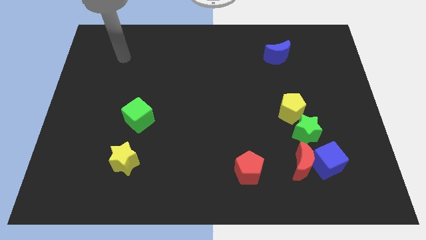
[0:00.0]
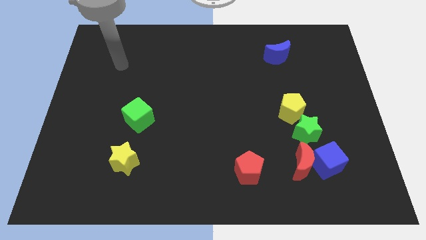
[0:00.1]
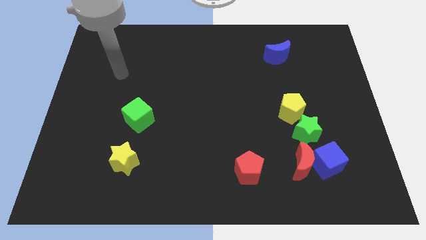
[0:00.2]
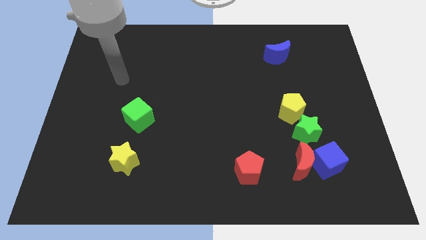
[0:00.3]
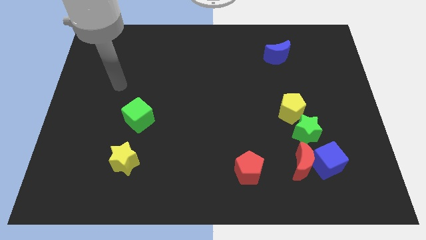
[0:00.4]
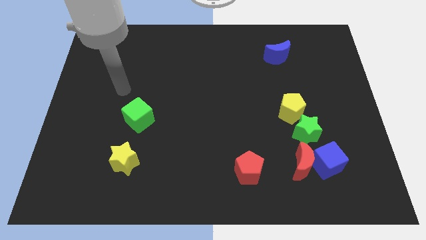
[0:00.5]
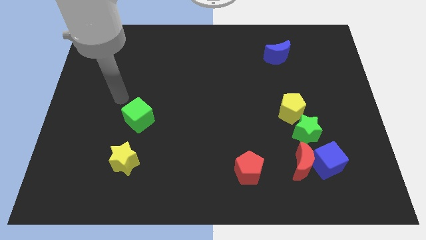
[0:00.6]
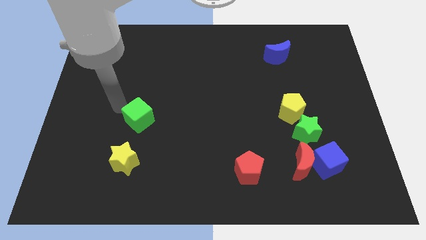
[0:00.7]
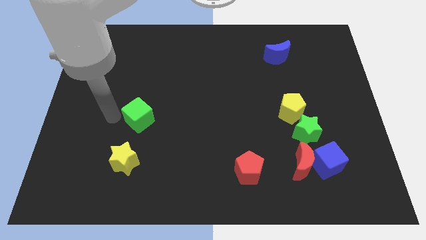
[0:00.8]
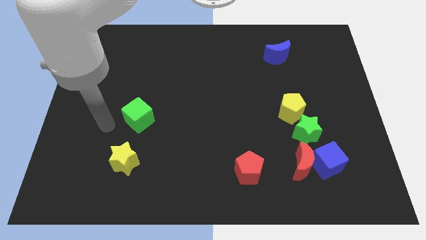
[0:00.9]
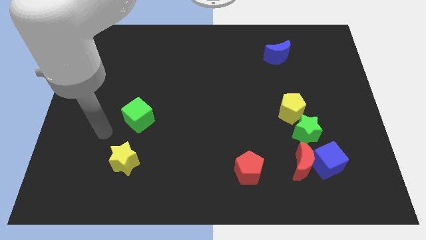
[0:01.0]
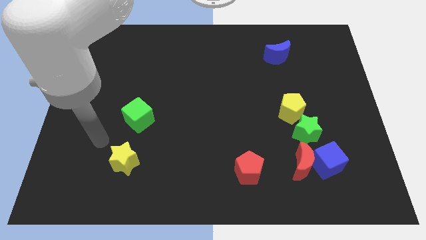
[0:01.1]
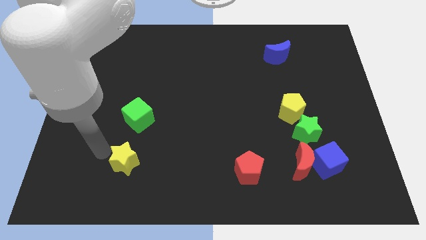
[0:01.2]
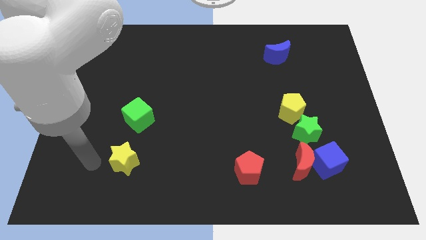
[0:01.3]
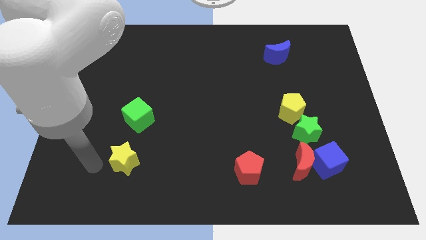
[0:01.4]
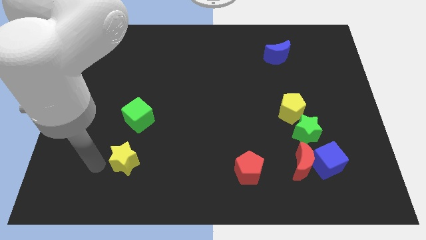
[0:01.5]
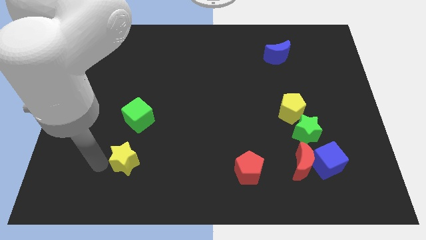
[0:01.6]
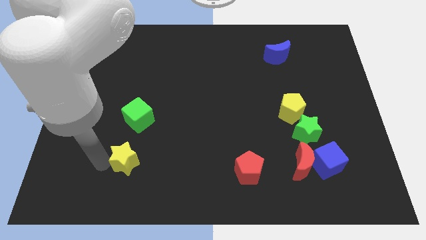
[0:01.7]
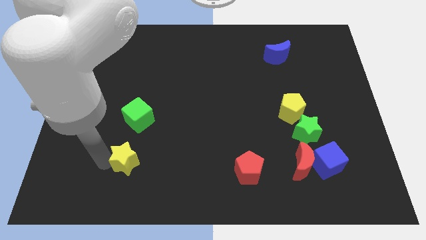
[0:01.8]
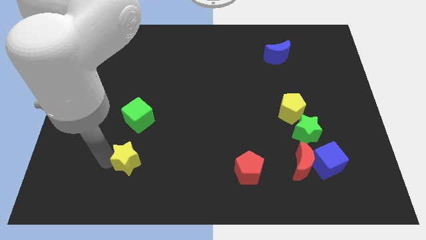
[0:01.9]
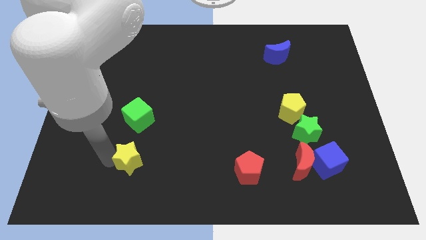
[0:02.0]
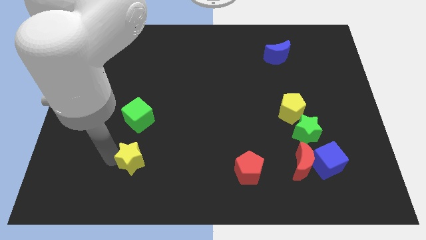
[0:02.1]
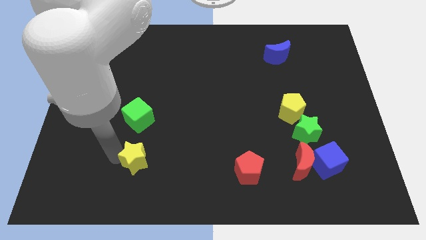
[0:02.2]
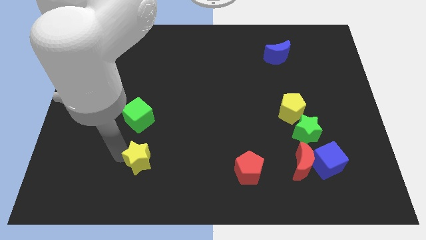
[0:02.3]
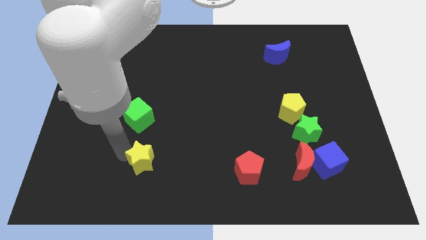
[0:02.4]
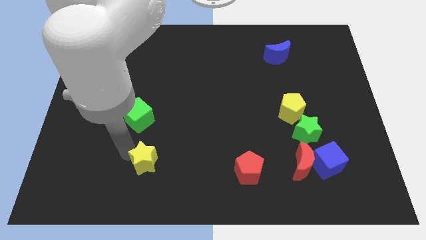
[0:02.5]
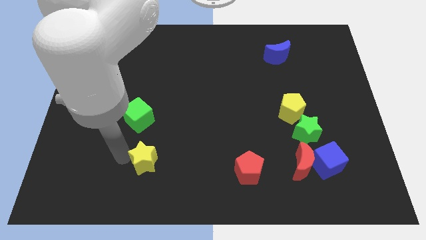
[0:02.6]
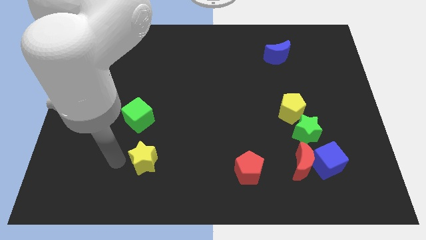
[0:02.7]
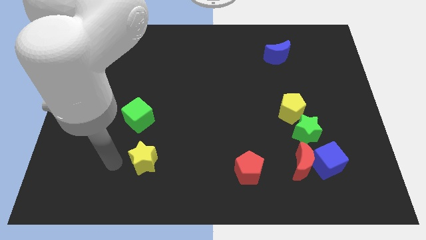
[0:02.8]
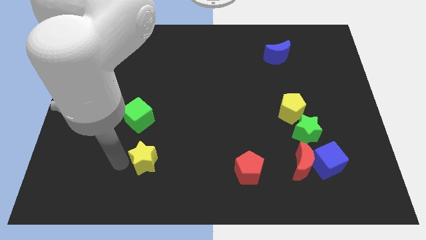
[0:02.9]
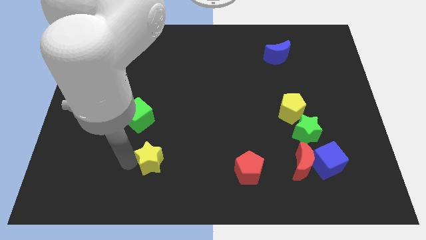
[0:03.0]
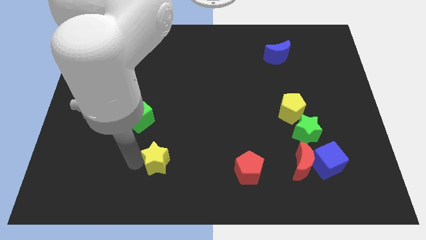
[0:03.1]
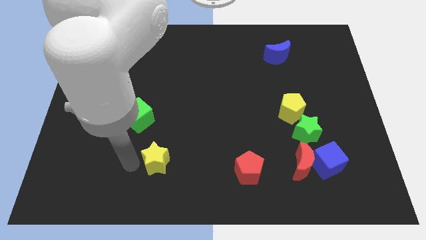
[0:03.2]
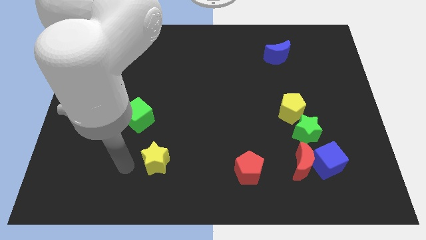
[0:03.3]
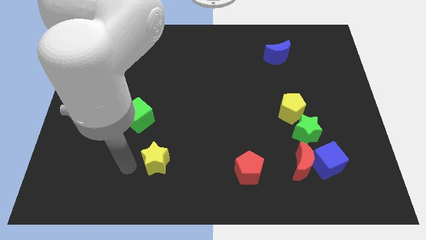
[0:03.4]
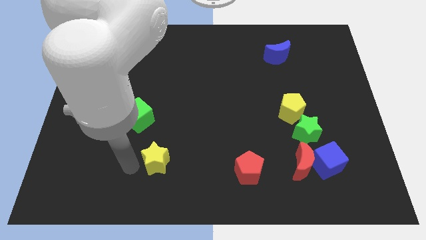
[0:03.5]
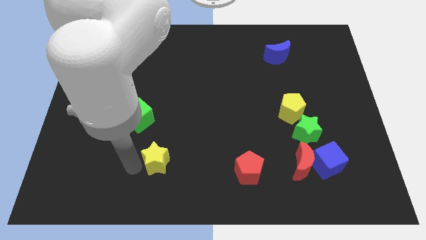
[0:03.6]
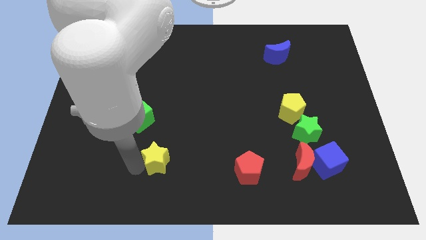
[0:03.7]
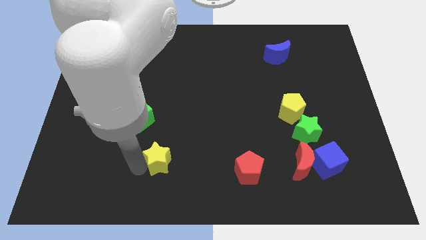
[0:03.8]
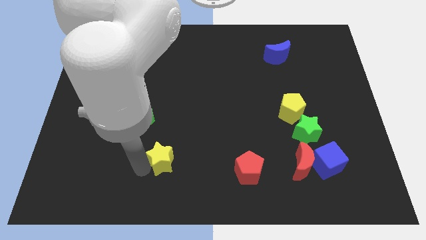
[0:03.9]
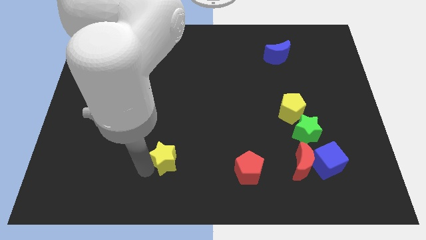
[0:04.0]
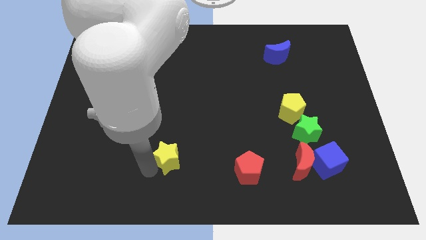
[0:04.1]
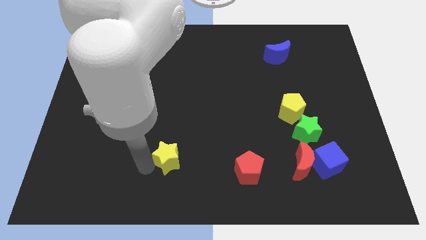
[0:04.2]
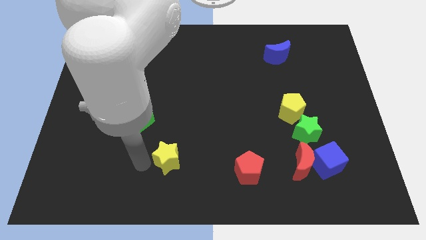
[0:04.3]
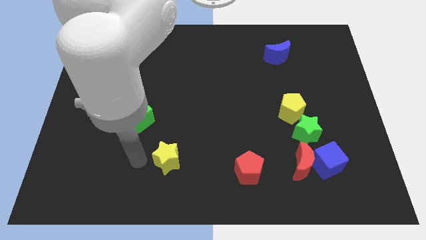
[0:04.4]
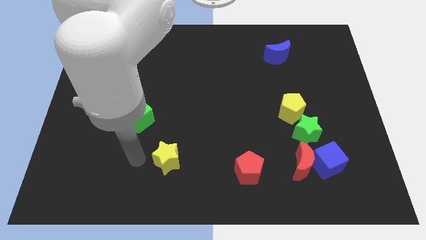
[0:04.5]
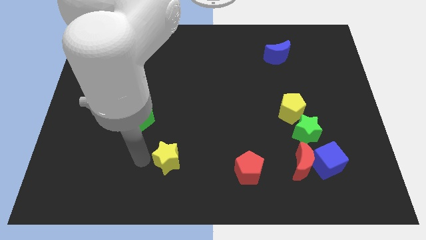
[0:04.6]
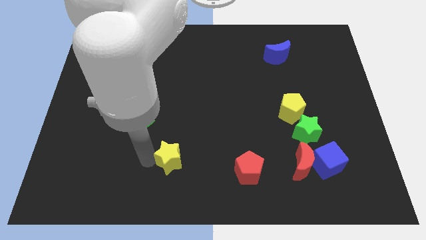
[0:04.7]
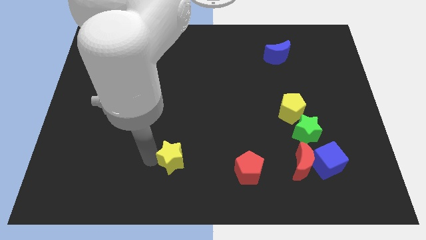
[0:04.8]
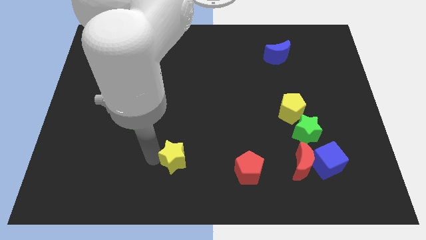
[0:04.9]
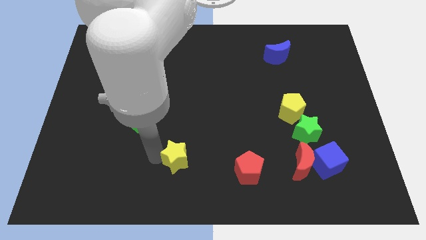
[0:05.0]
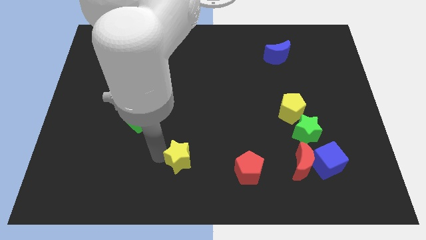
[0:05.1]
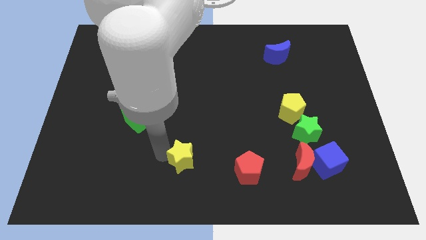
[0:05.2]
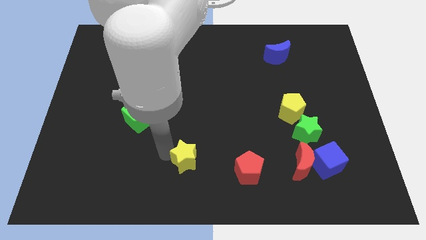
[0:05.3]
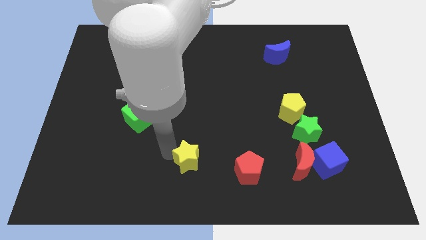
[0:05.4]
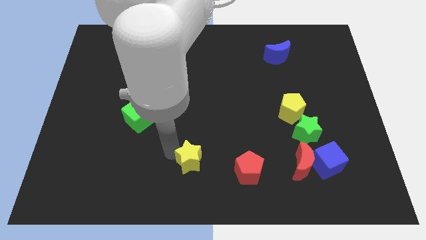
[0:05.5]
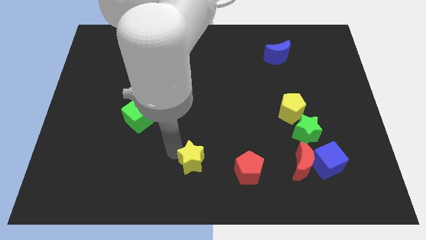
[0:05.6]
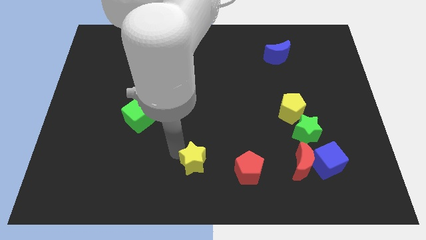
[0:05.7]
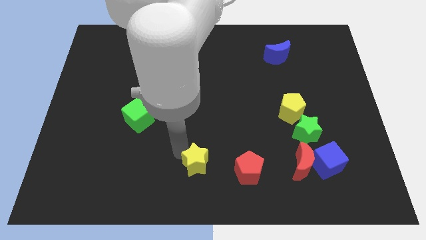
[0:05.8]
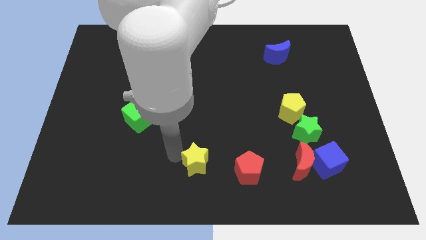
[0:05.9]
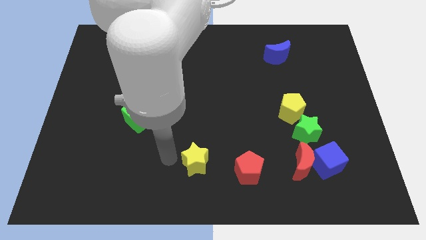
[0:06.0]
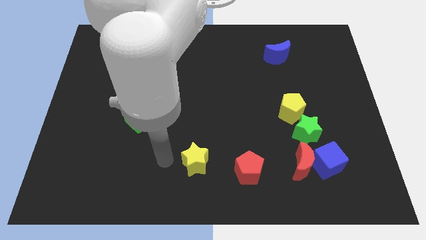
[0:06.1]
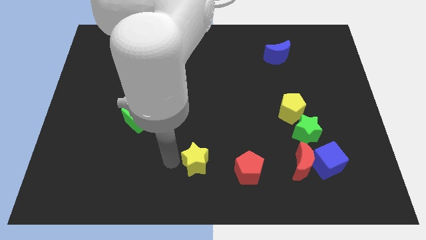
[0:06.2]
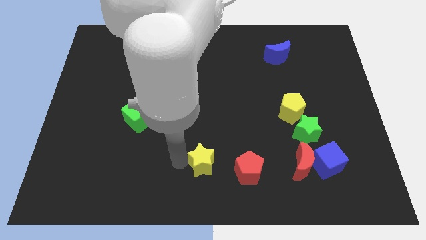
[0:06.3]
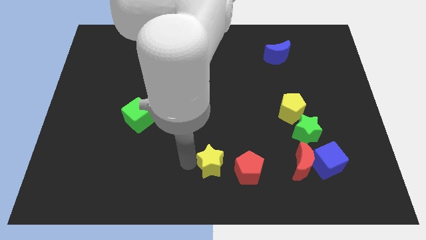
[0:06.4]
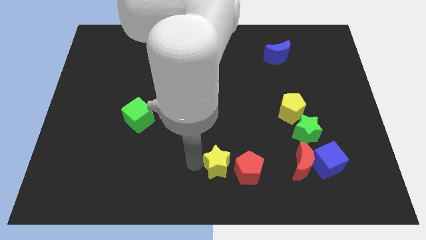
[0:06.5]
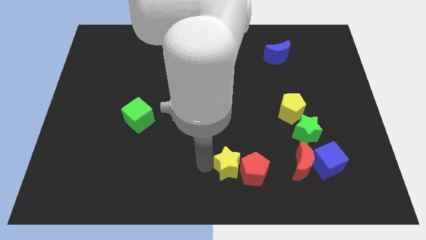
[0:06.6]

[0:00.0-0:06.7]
move the yellow star just left of the red moon

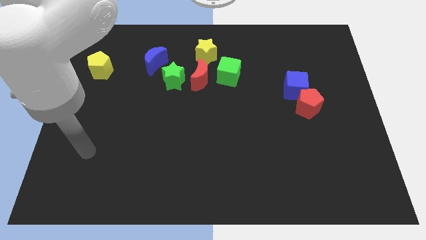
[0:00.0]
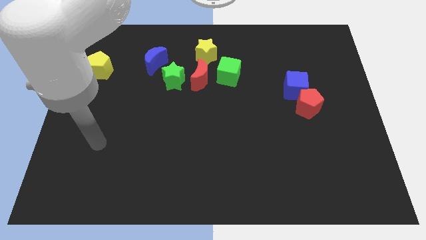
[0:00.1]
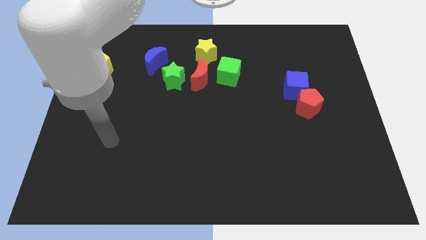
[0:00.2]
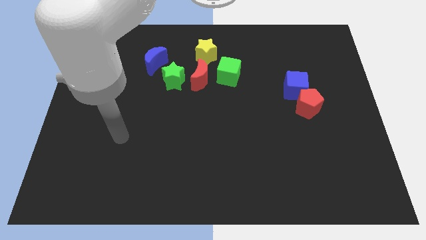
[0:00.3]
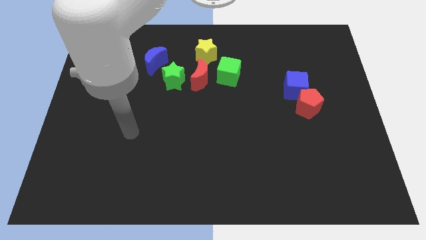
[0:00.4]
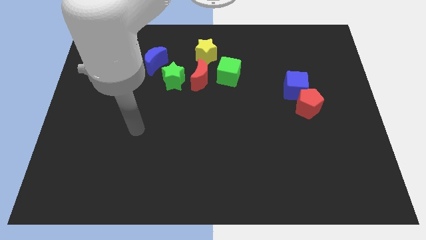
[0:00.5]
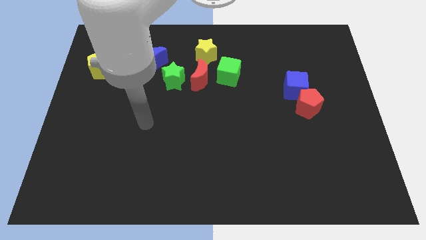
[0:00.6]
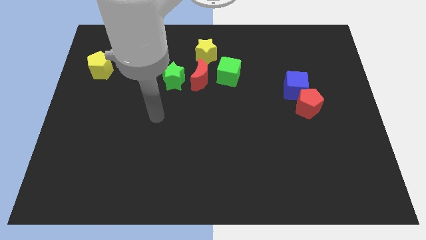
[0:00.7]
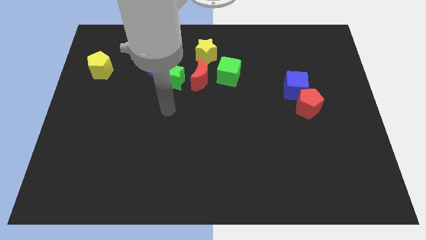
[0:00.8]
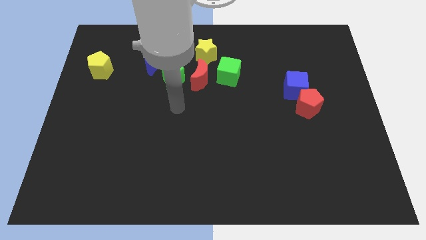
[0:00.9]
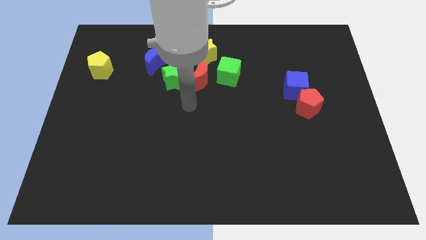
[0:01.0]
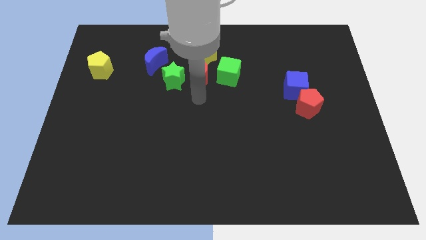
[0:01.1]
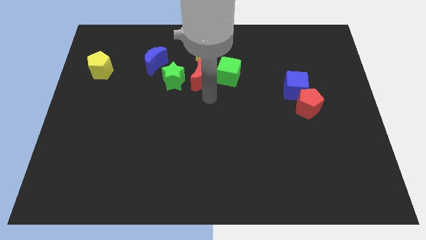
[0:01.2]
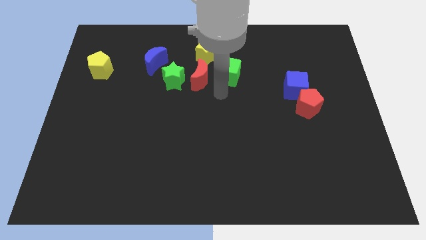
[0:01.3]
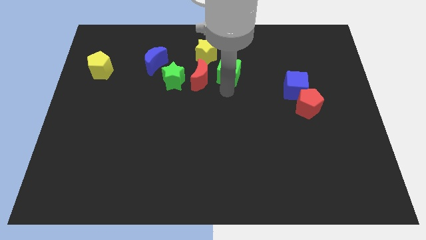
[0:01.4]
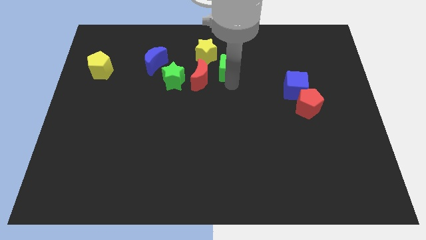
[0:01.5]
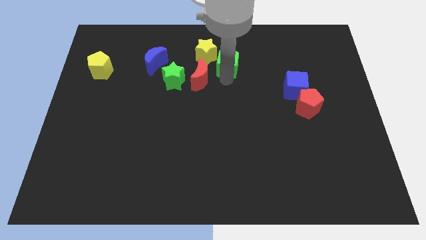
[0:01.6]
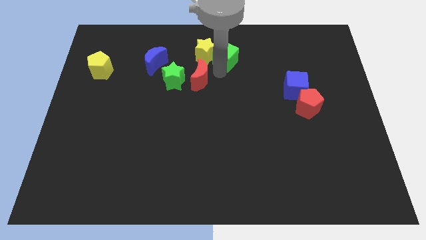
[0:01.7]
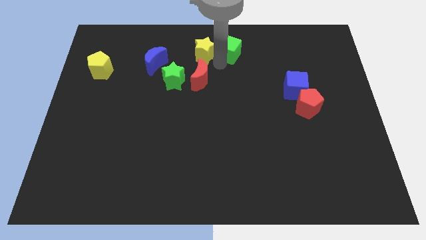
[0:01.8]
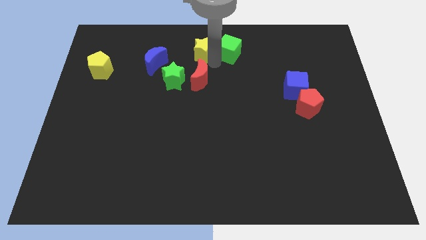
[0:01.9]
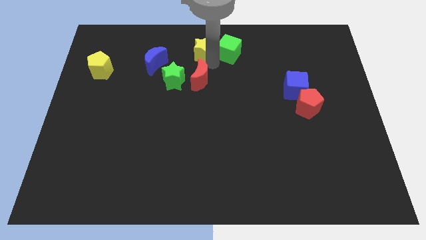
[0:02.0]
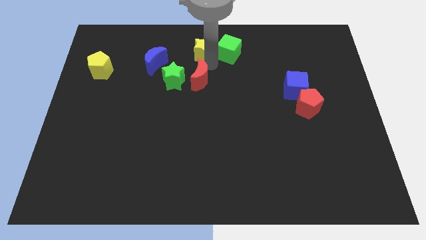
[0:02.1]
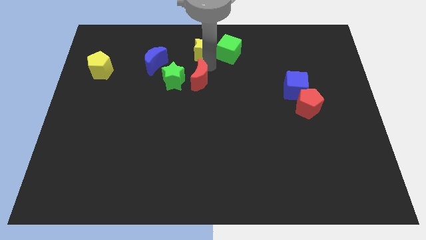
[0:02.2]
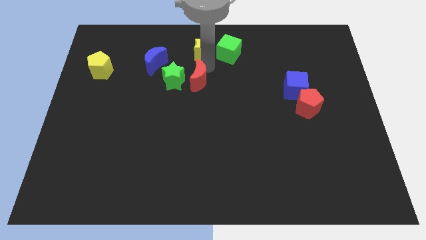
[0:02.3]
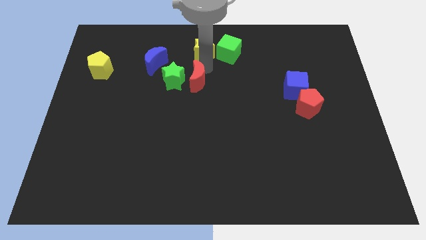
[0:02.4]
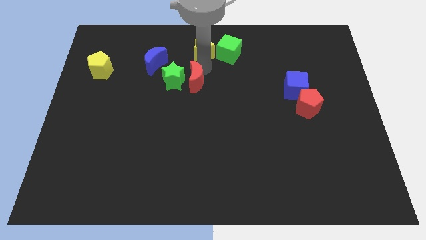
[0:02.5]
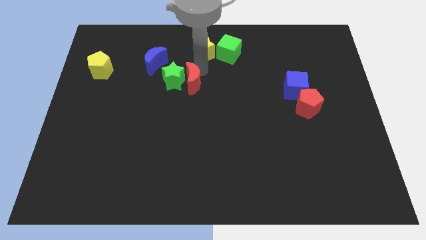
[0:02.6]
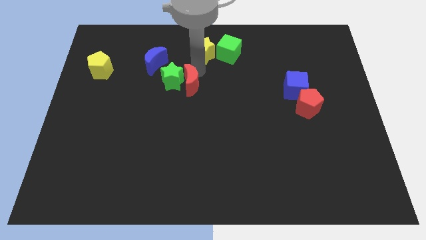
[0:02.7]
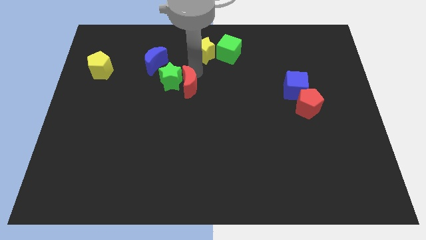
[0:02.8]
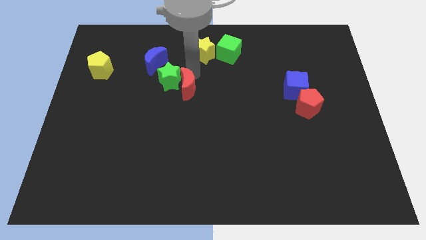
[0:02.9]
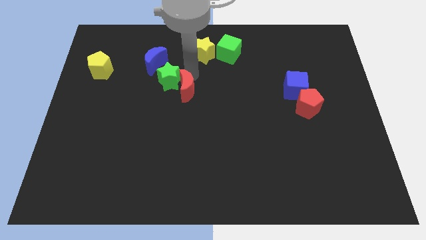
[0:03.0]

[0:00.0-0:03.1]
put the red moon below the green star
